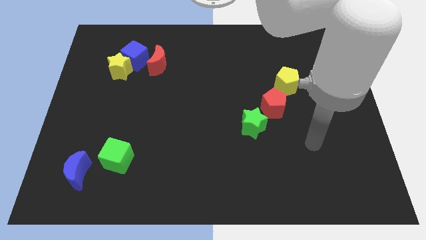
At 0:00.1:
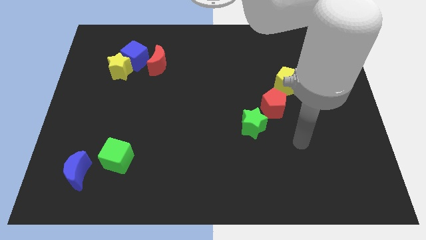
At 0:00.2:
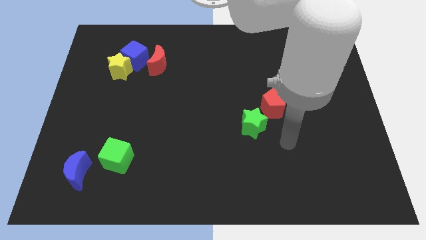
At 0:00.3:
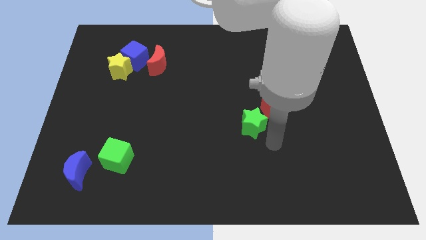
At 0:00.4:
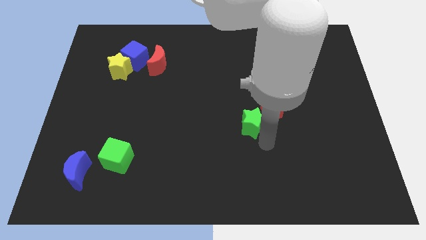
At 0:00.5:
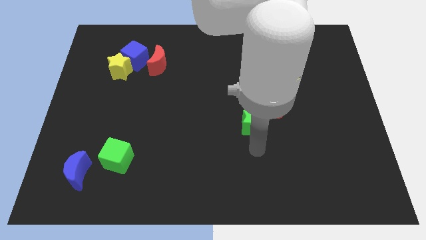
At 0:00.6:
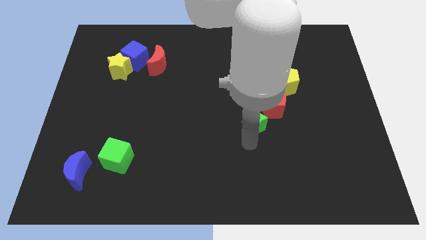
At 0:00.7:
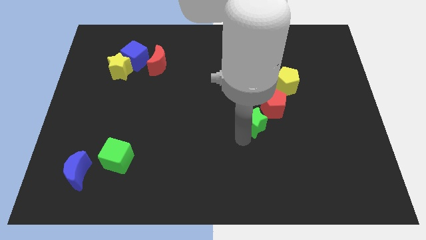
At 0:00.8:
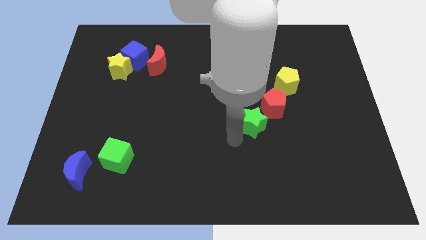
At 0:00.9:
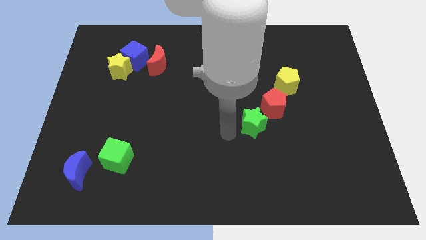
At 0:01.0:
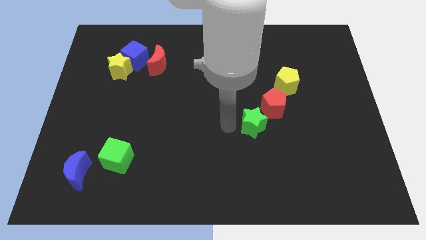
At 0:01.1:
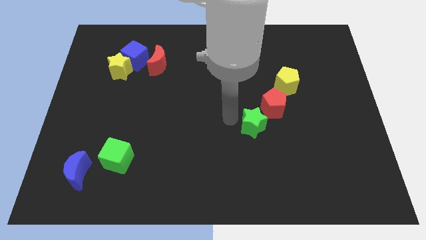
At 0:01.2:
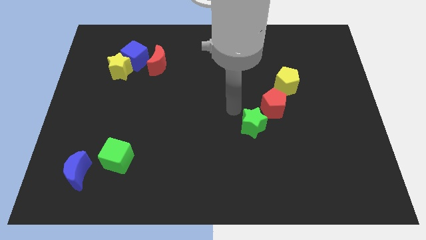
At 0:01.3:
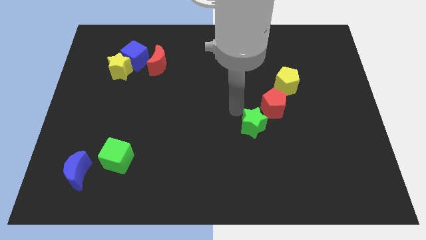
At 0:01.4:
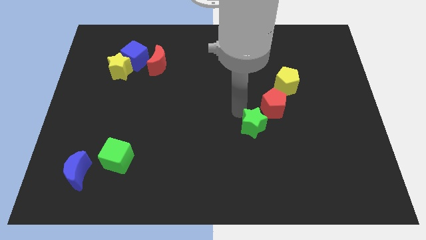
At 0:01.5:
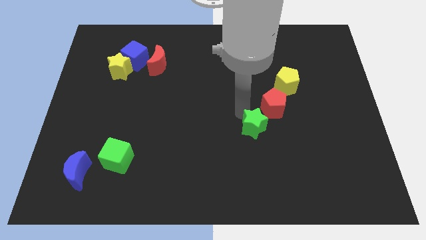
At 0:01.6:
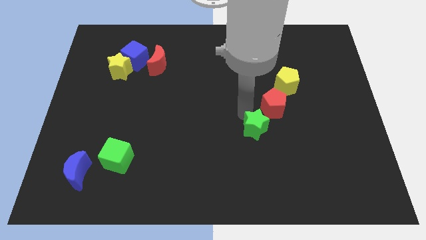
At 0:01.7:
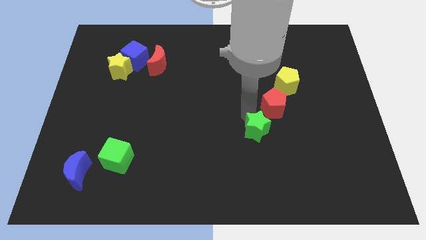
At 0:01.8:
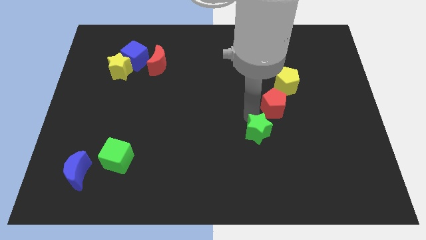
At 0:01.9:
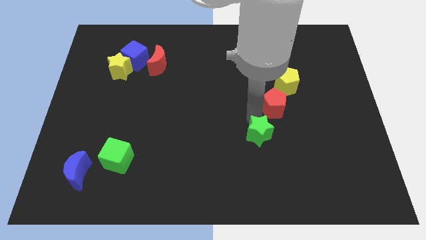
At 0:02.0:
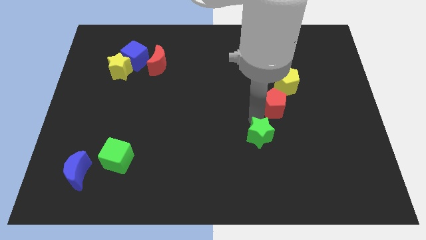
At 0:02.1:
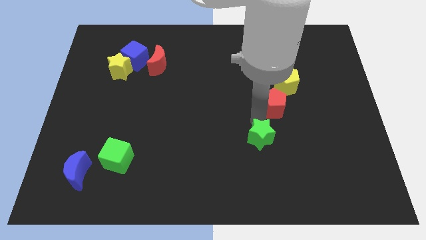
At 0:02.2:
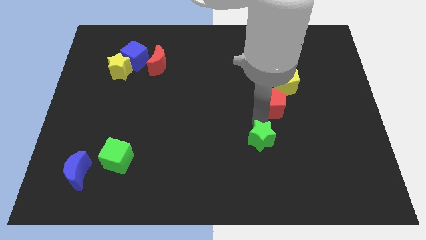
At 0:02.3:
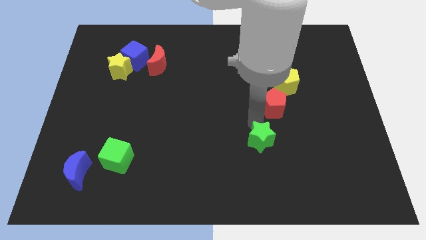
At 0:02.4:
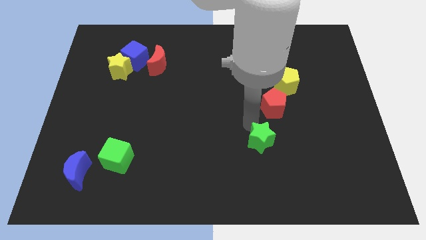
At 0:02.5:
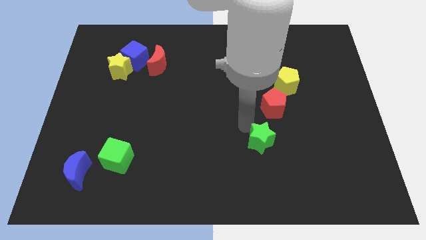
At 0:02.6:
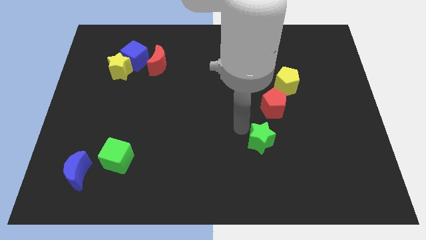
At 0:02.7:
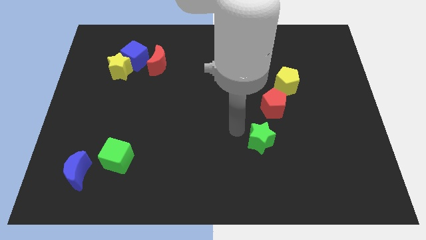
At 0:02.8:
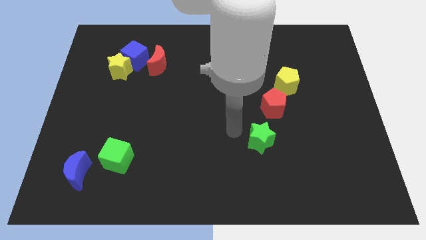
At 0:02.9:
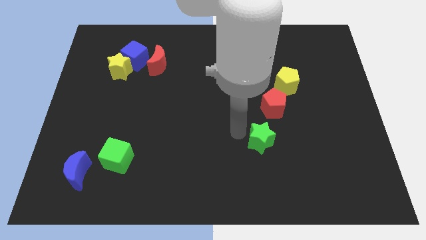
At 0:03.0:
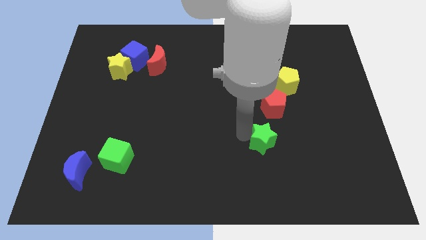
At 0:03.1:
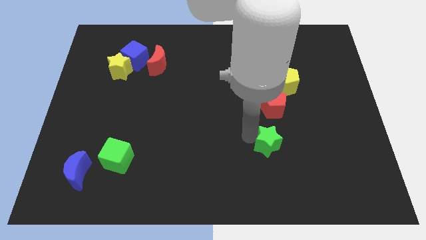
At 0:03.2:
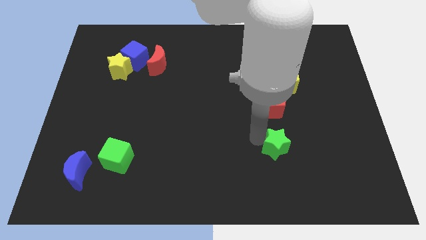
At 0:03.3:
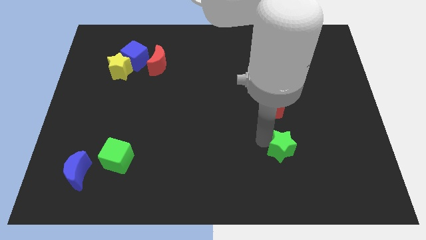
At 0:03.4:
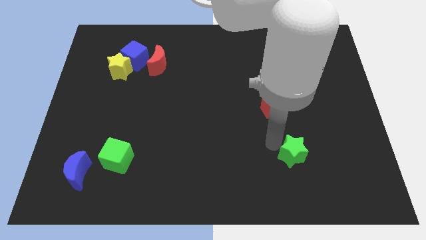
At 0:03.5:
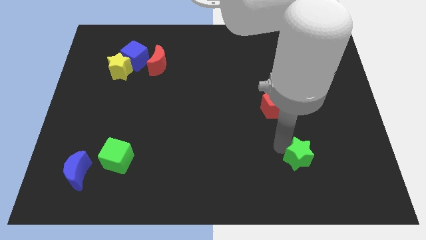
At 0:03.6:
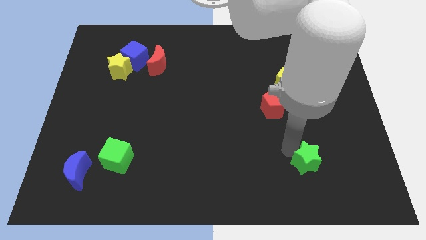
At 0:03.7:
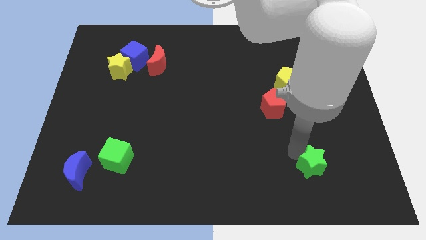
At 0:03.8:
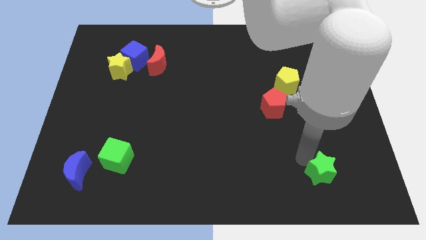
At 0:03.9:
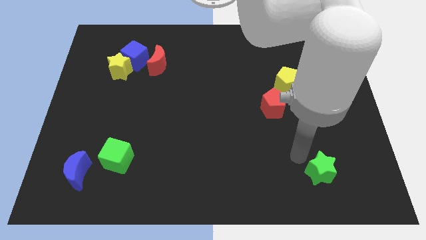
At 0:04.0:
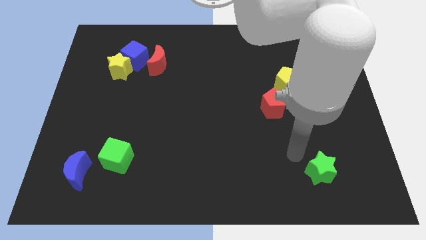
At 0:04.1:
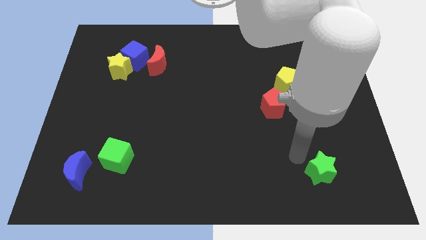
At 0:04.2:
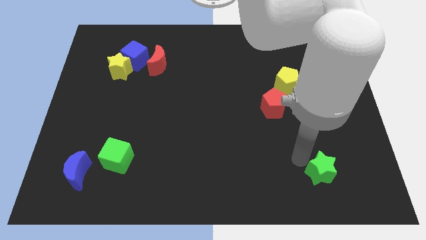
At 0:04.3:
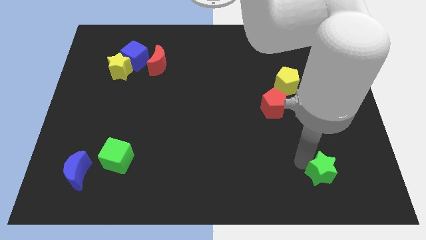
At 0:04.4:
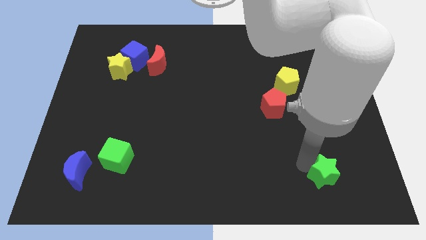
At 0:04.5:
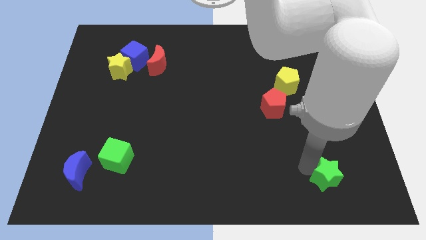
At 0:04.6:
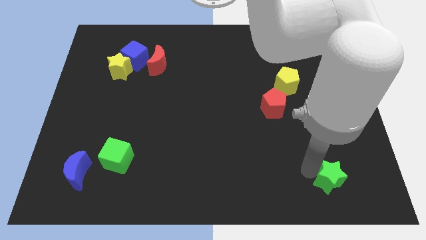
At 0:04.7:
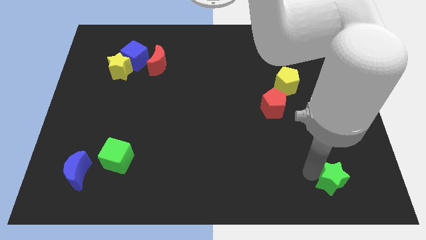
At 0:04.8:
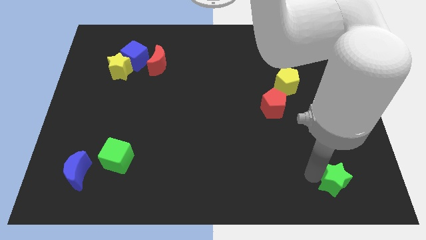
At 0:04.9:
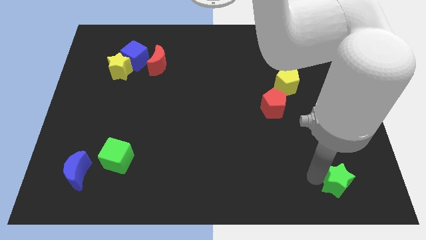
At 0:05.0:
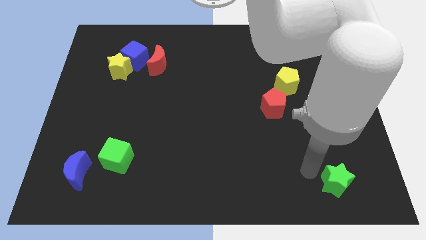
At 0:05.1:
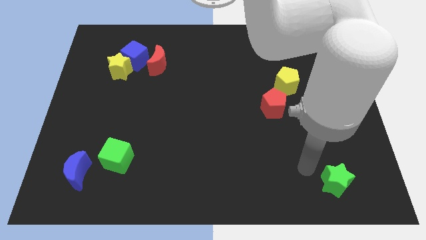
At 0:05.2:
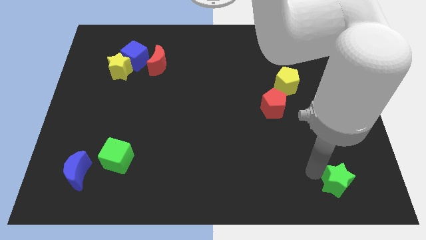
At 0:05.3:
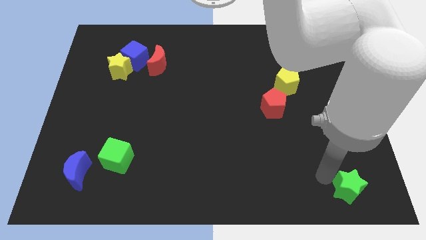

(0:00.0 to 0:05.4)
slide the green star to the lower right corner

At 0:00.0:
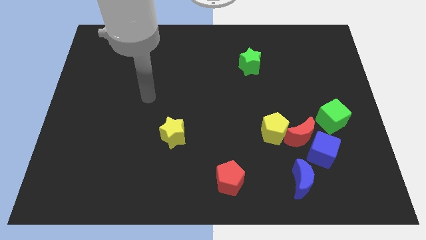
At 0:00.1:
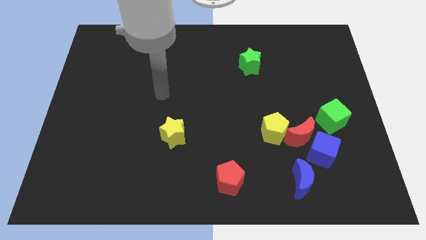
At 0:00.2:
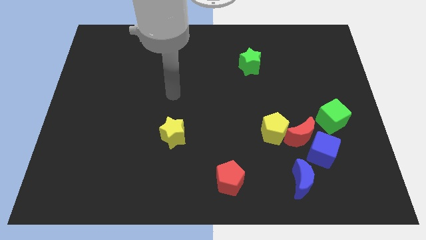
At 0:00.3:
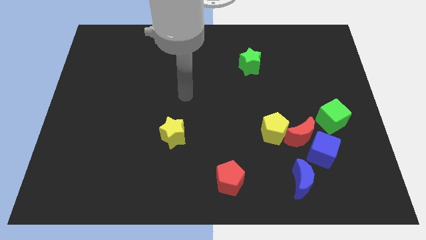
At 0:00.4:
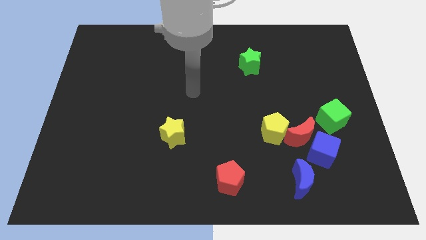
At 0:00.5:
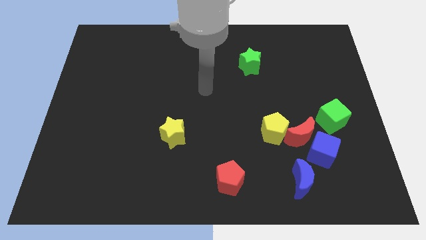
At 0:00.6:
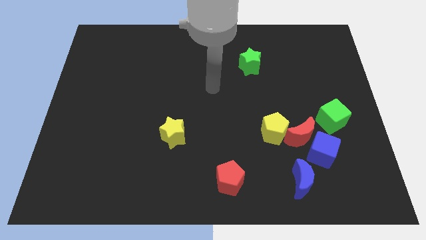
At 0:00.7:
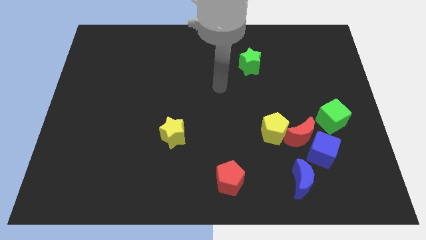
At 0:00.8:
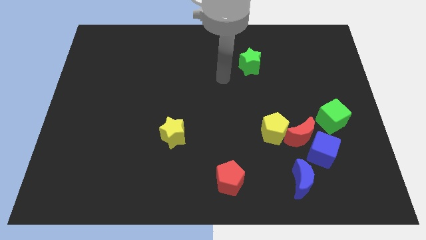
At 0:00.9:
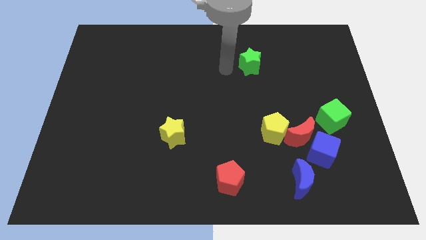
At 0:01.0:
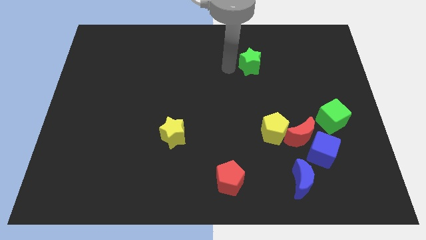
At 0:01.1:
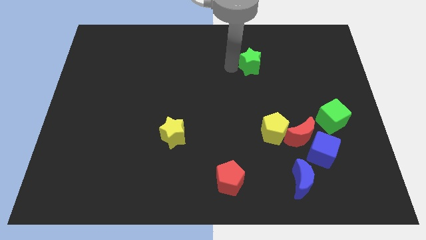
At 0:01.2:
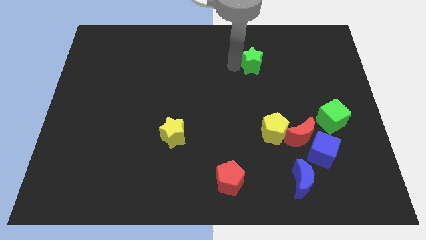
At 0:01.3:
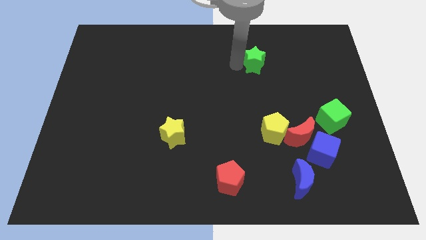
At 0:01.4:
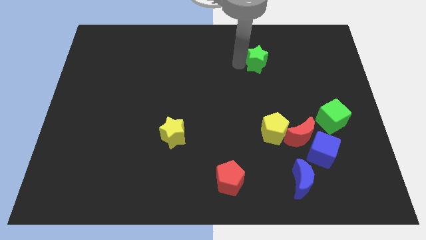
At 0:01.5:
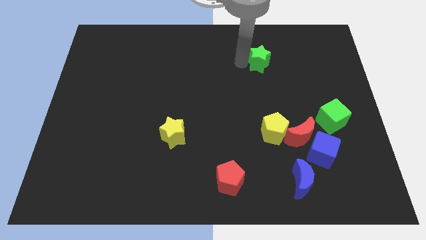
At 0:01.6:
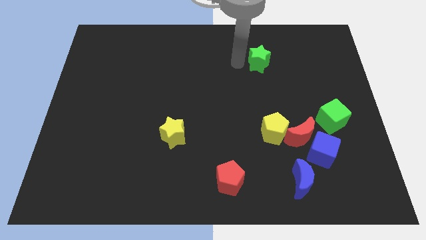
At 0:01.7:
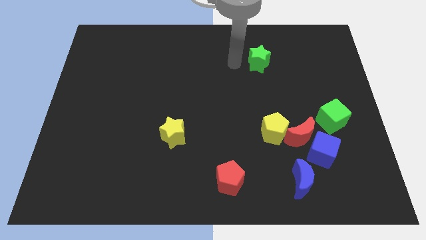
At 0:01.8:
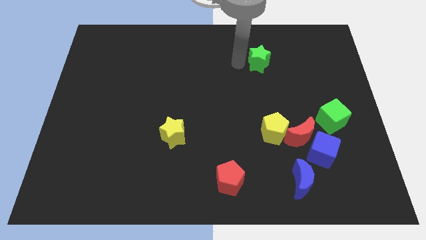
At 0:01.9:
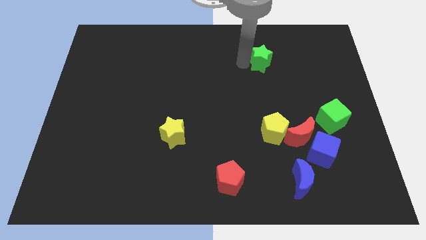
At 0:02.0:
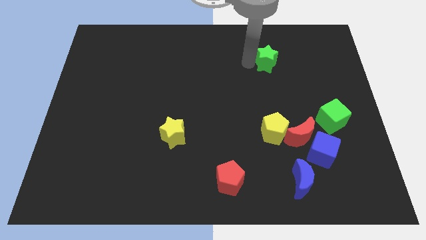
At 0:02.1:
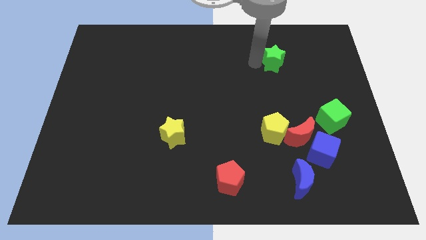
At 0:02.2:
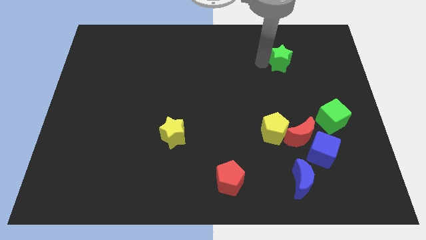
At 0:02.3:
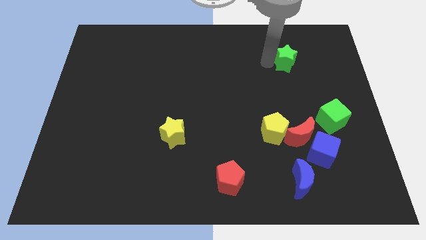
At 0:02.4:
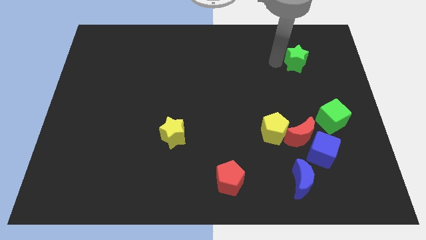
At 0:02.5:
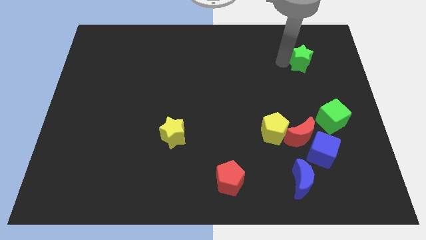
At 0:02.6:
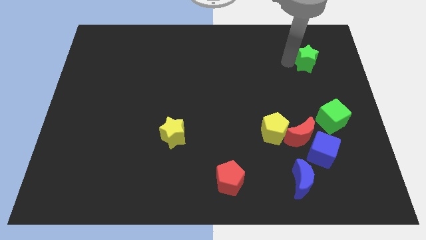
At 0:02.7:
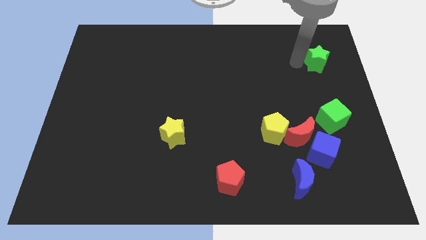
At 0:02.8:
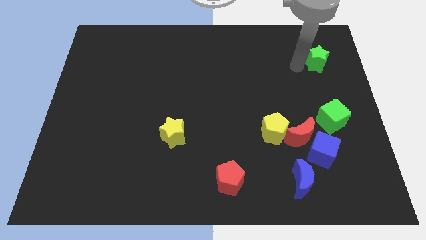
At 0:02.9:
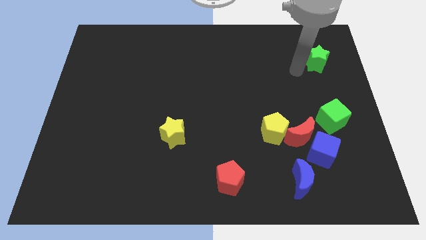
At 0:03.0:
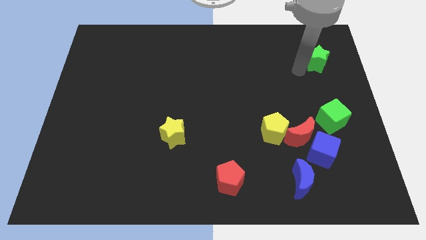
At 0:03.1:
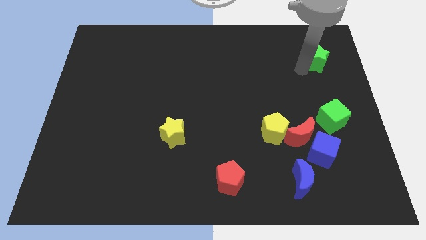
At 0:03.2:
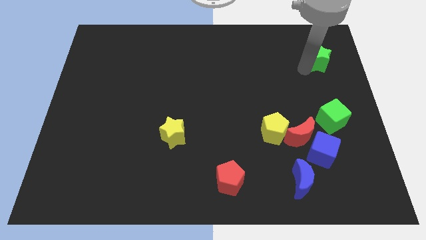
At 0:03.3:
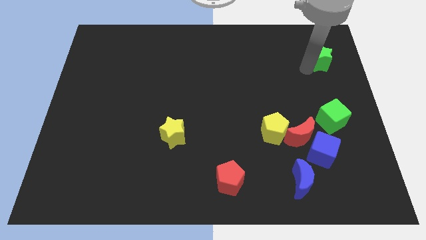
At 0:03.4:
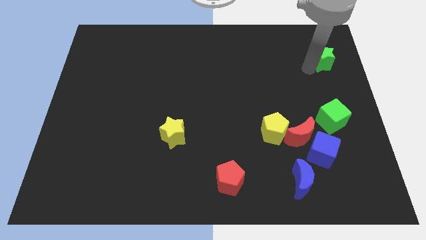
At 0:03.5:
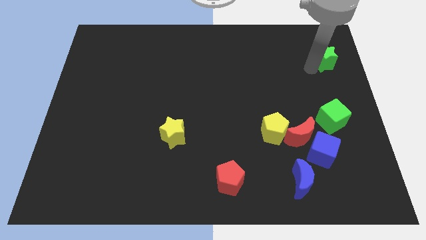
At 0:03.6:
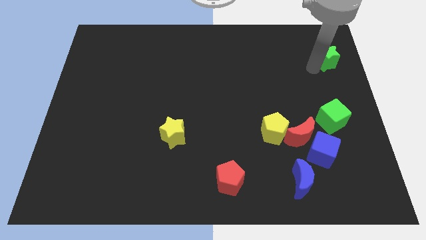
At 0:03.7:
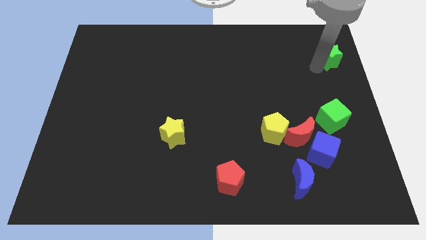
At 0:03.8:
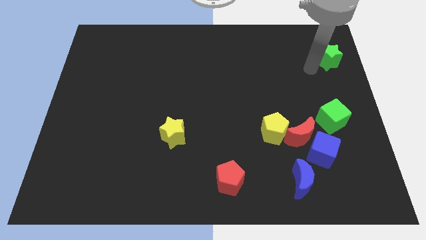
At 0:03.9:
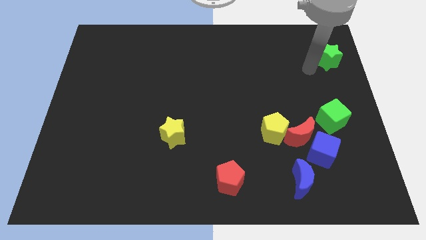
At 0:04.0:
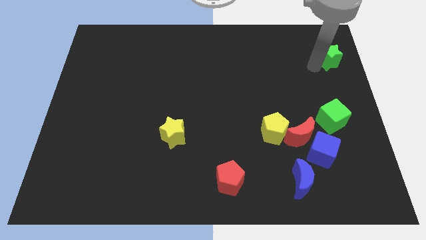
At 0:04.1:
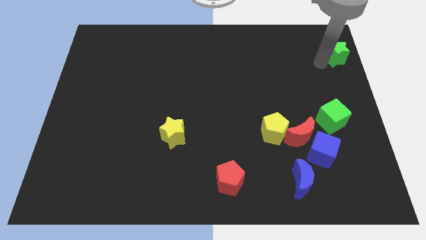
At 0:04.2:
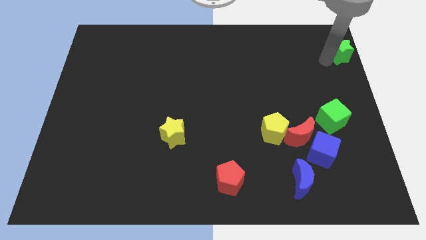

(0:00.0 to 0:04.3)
move the green star to the top right
